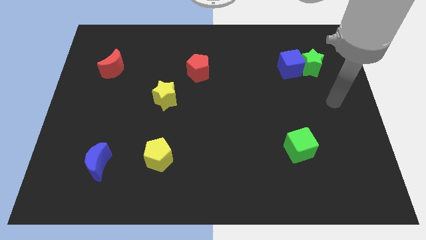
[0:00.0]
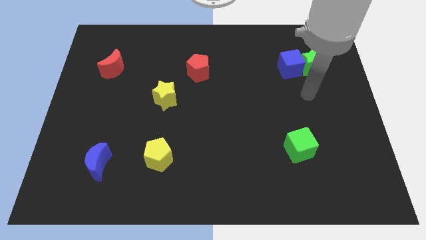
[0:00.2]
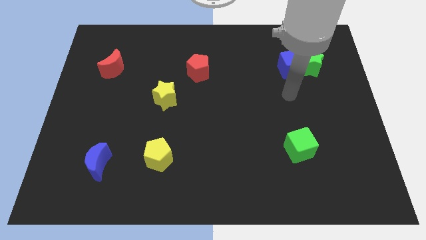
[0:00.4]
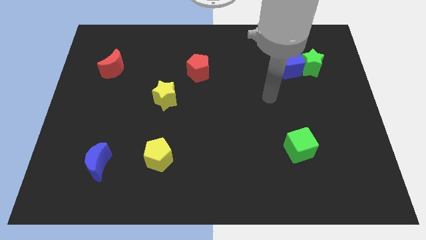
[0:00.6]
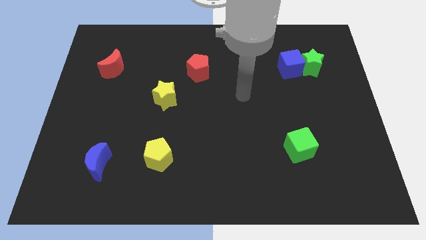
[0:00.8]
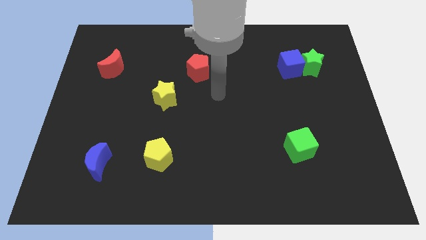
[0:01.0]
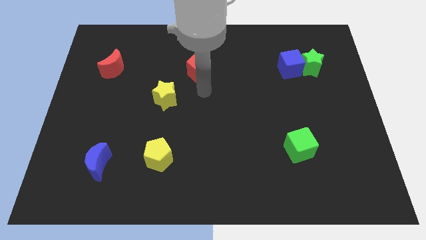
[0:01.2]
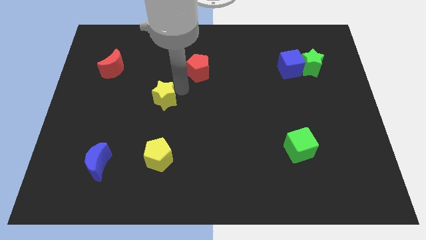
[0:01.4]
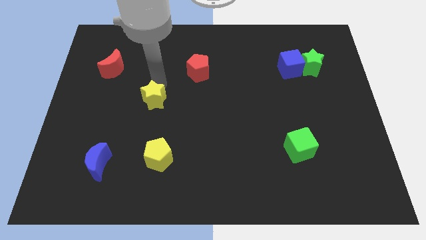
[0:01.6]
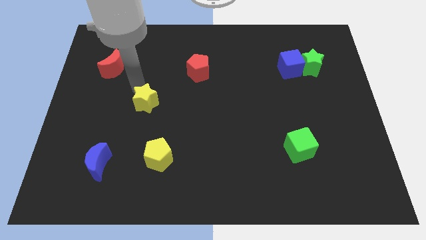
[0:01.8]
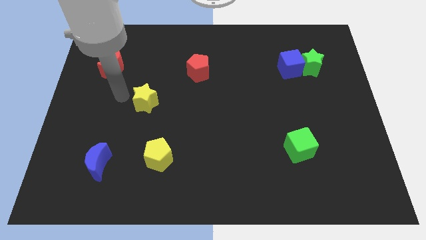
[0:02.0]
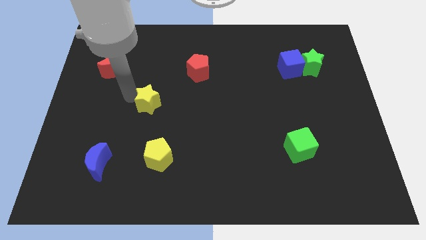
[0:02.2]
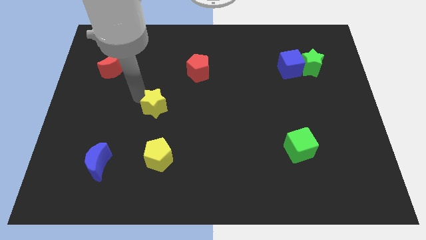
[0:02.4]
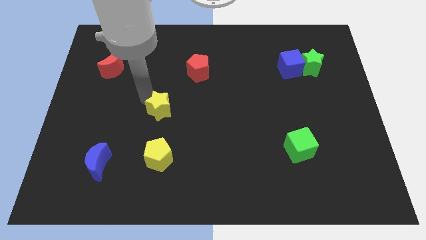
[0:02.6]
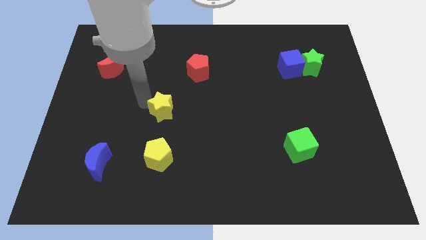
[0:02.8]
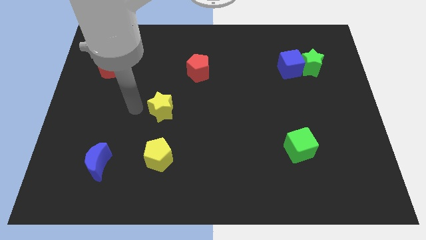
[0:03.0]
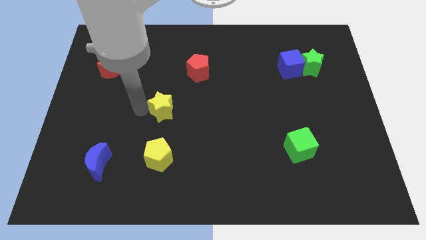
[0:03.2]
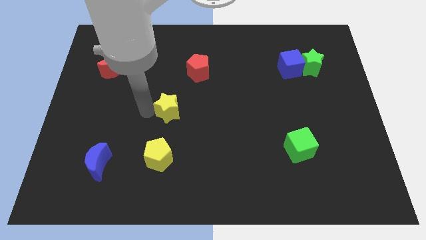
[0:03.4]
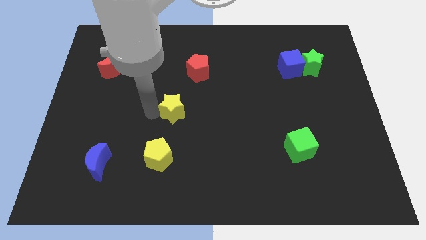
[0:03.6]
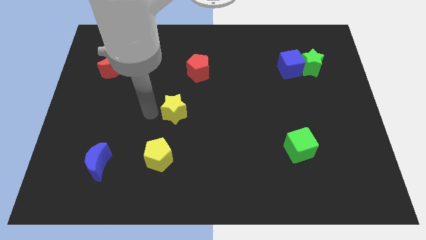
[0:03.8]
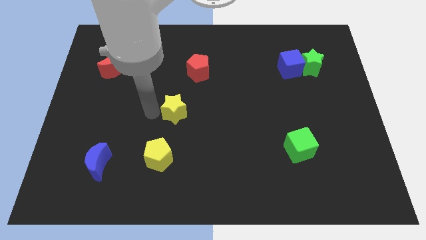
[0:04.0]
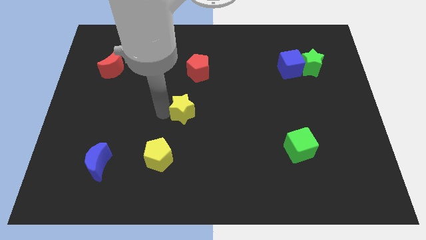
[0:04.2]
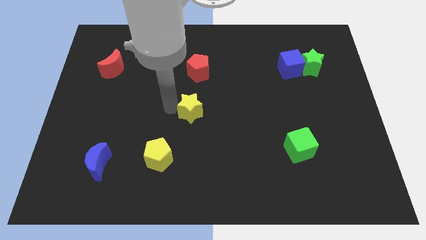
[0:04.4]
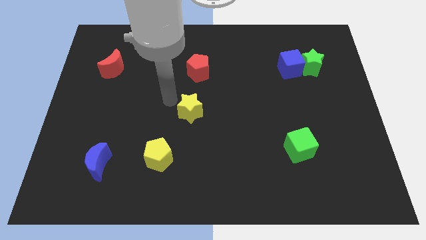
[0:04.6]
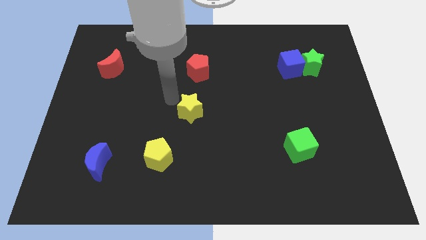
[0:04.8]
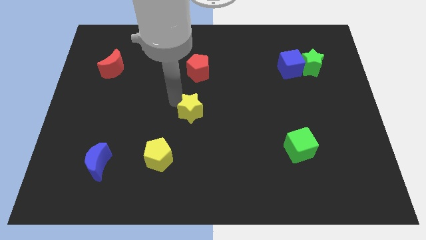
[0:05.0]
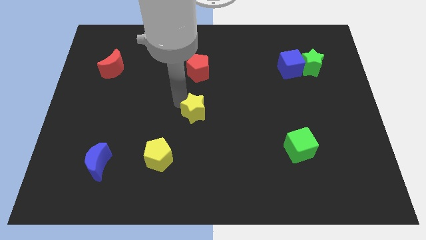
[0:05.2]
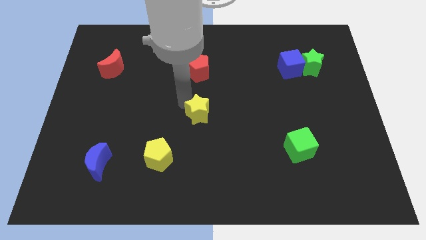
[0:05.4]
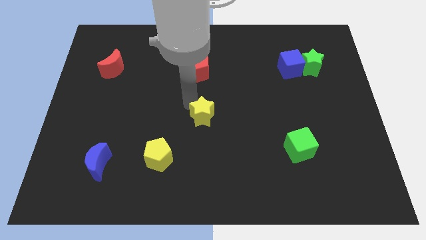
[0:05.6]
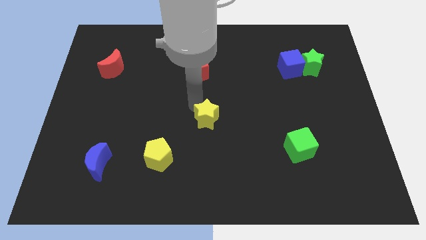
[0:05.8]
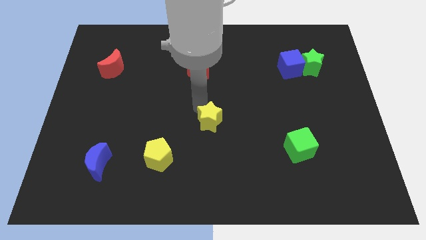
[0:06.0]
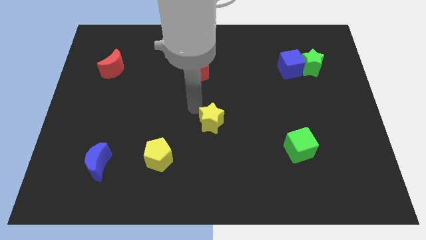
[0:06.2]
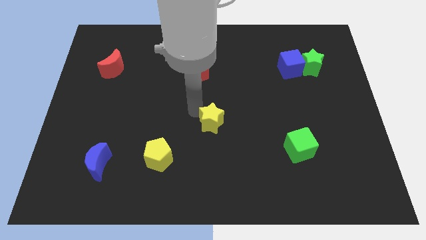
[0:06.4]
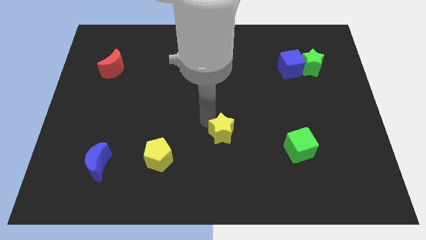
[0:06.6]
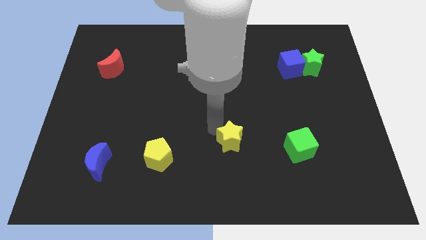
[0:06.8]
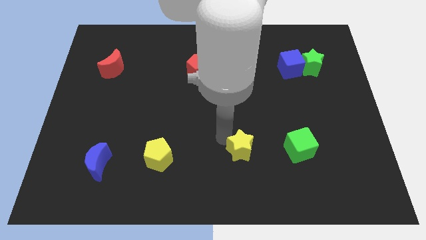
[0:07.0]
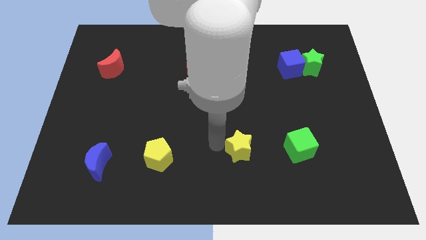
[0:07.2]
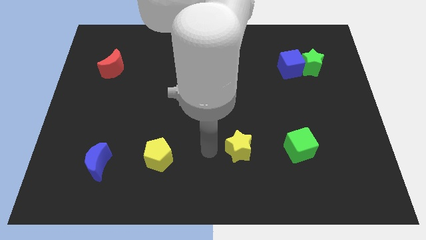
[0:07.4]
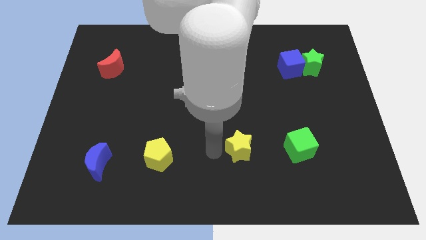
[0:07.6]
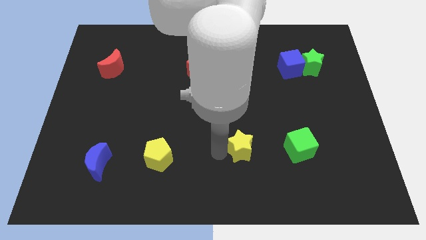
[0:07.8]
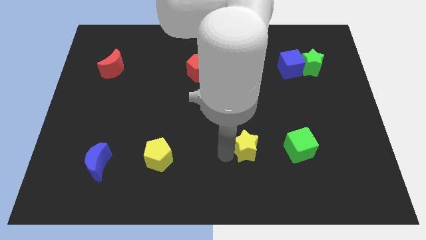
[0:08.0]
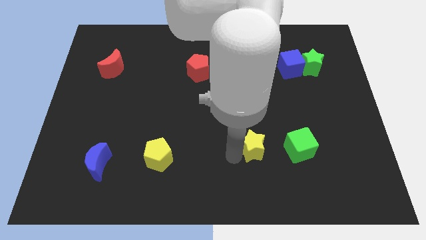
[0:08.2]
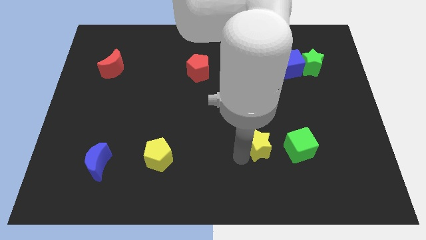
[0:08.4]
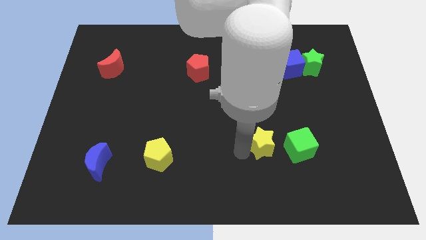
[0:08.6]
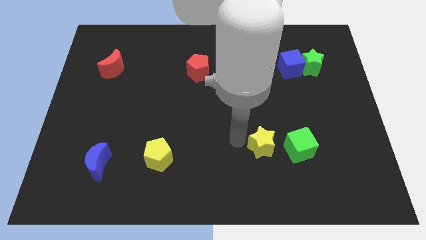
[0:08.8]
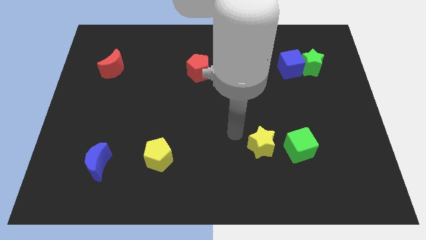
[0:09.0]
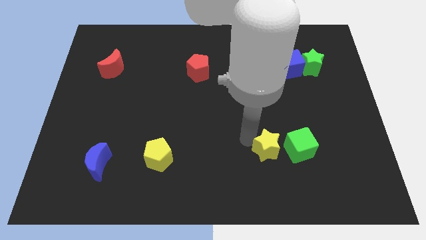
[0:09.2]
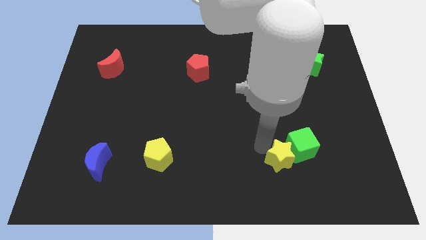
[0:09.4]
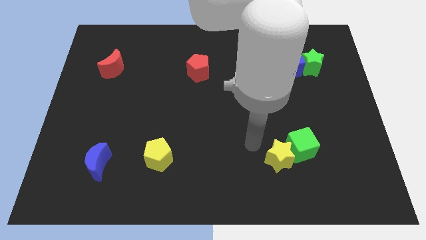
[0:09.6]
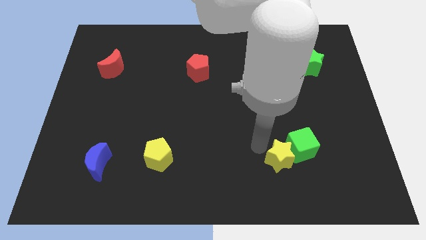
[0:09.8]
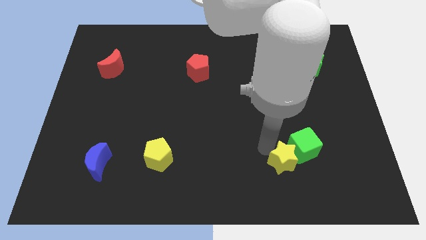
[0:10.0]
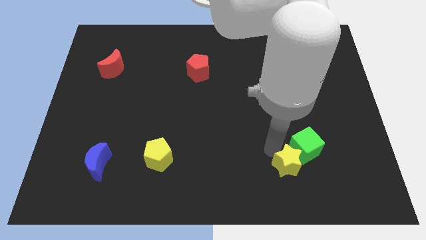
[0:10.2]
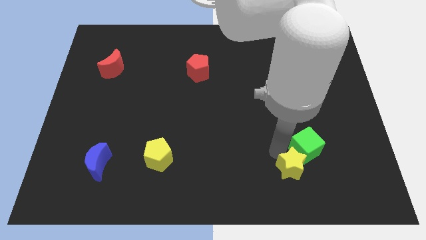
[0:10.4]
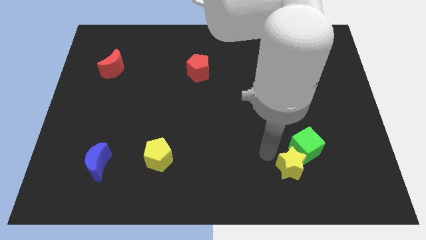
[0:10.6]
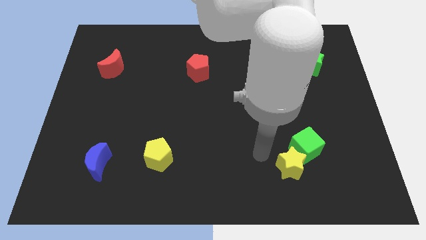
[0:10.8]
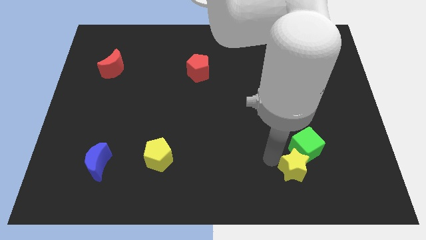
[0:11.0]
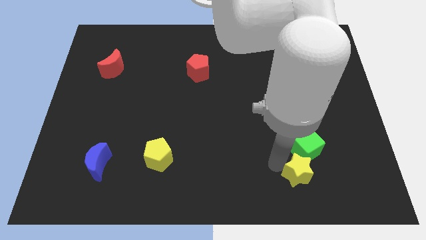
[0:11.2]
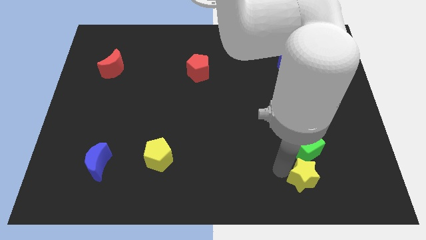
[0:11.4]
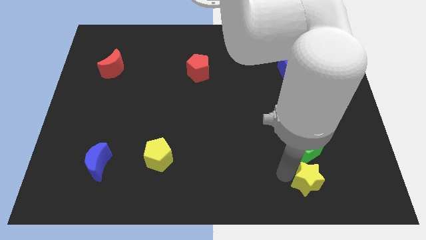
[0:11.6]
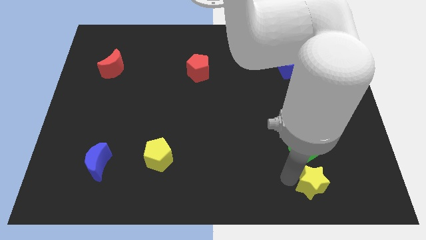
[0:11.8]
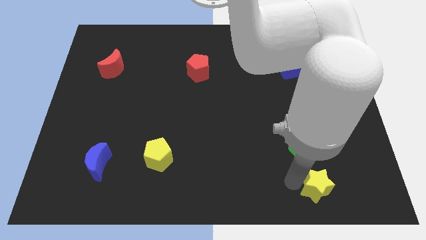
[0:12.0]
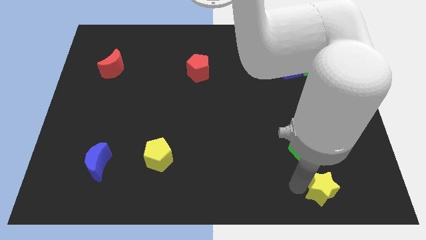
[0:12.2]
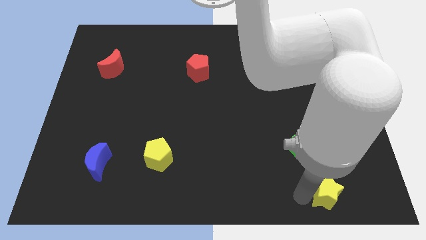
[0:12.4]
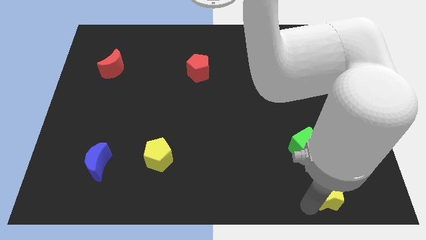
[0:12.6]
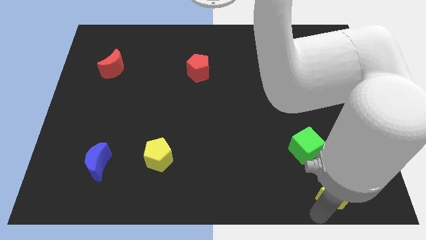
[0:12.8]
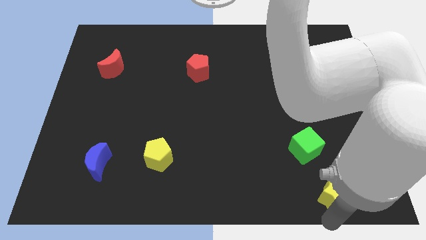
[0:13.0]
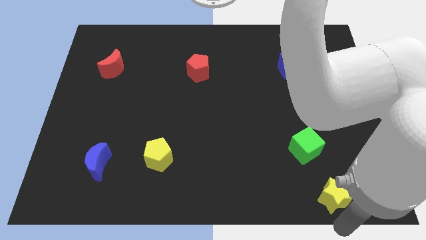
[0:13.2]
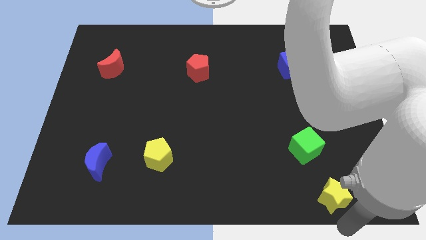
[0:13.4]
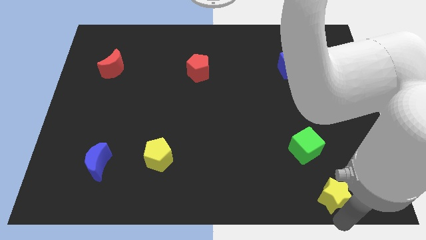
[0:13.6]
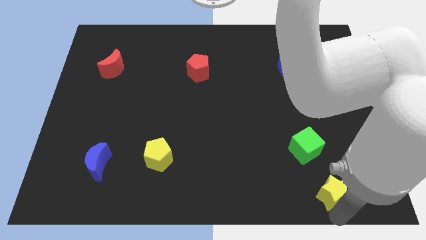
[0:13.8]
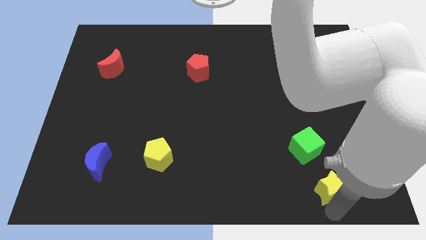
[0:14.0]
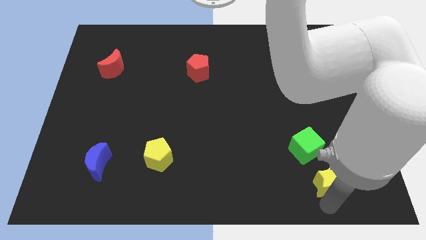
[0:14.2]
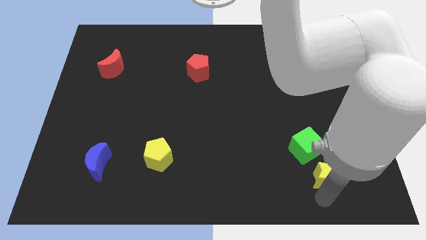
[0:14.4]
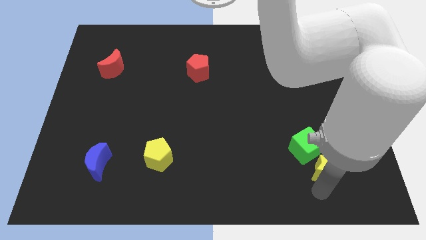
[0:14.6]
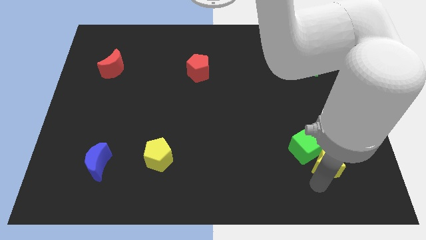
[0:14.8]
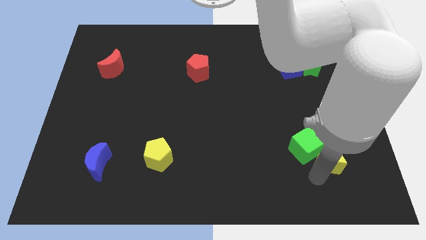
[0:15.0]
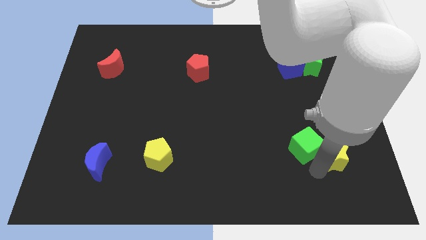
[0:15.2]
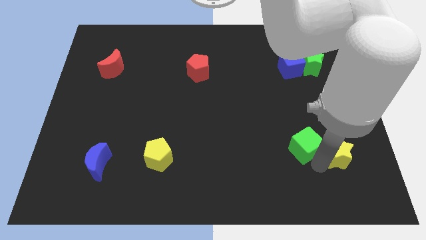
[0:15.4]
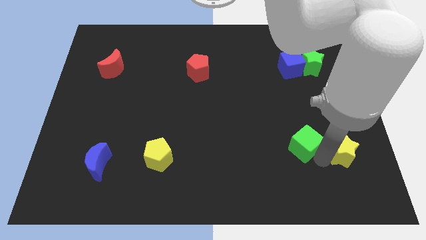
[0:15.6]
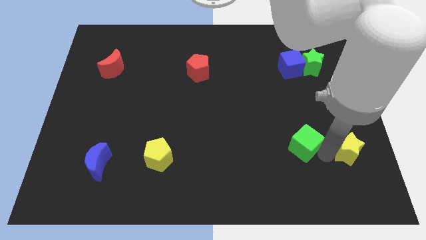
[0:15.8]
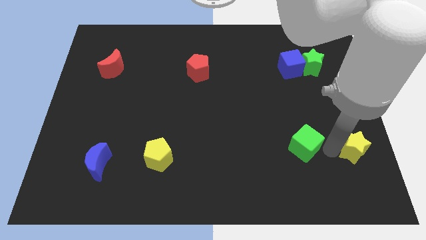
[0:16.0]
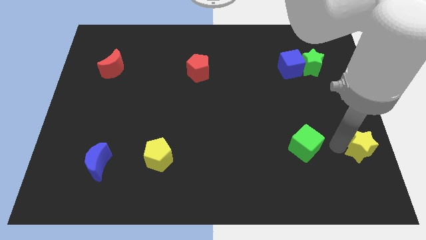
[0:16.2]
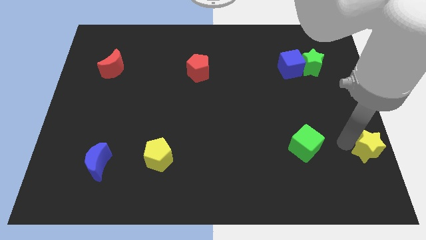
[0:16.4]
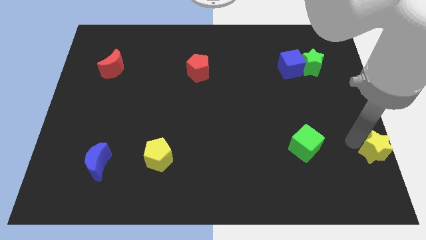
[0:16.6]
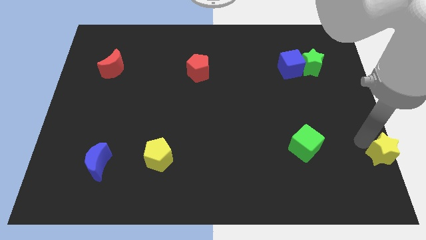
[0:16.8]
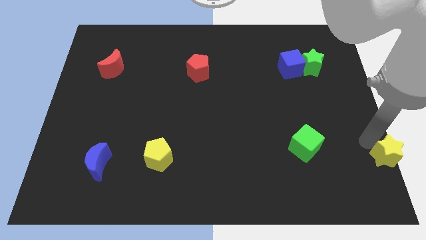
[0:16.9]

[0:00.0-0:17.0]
put the yellow star to the lower right corner
